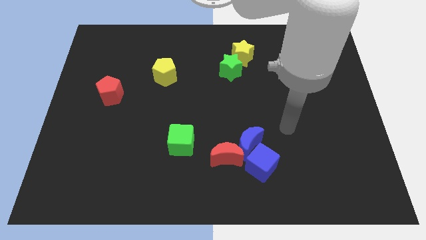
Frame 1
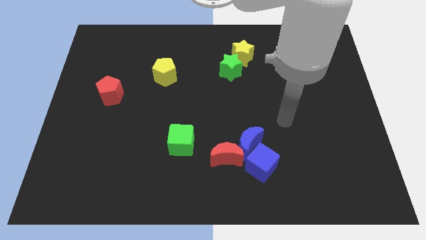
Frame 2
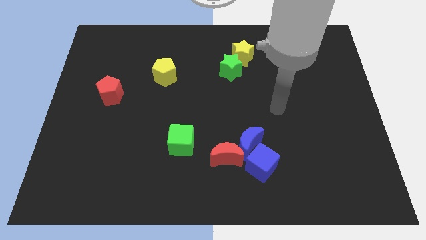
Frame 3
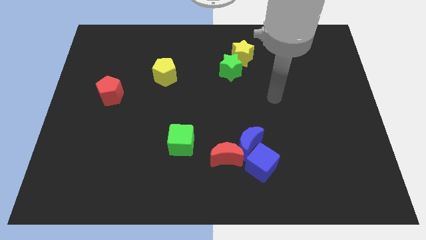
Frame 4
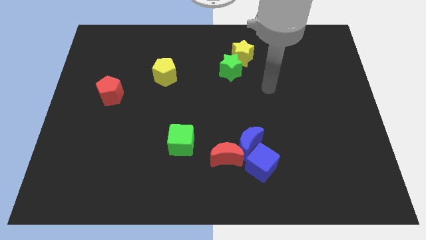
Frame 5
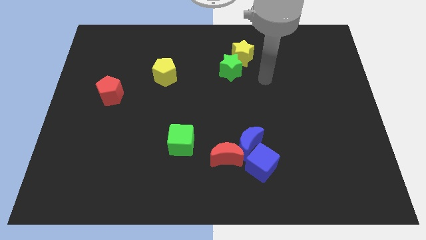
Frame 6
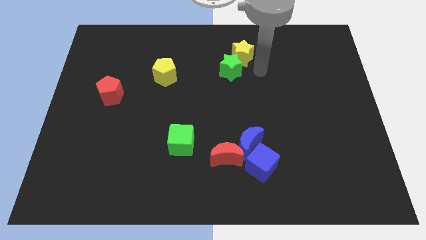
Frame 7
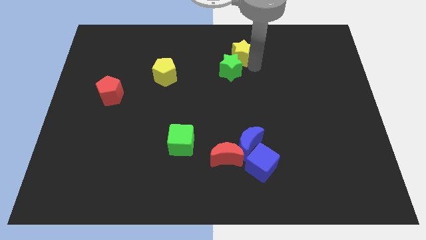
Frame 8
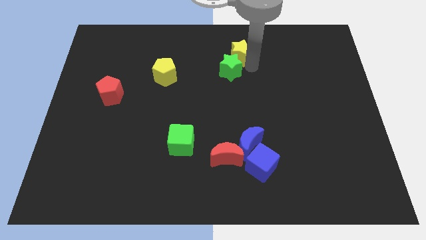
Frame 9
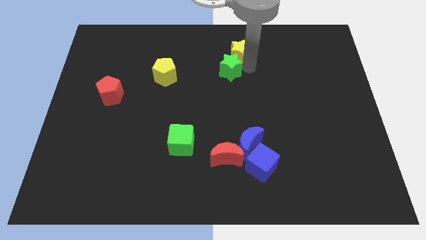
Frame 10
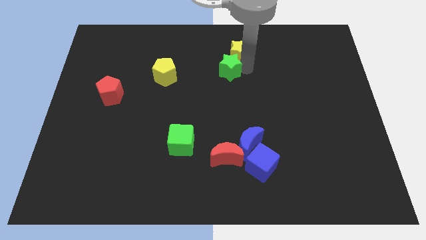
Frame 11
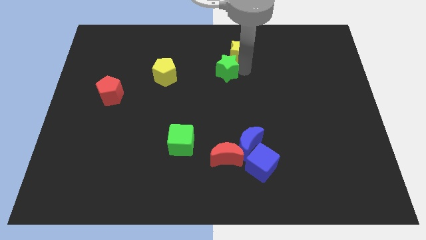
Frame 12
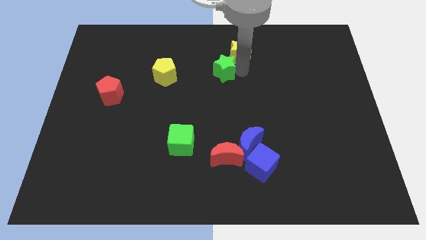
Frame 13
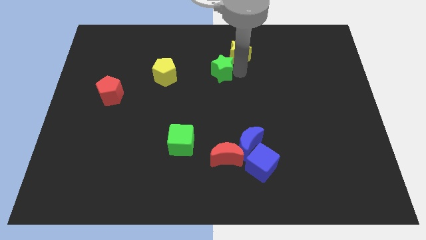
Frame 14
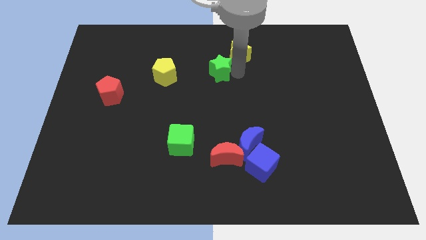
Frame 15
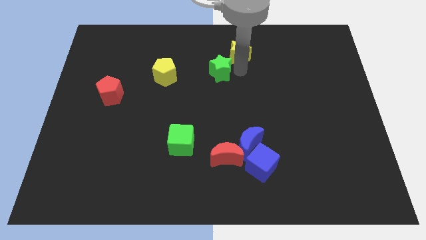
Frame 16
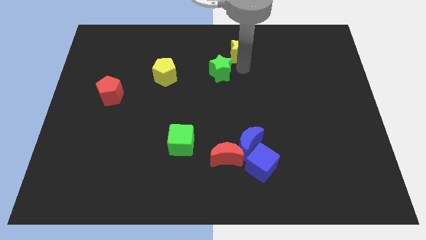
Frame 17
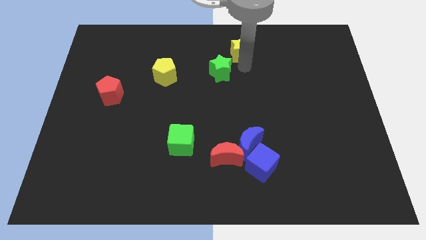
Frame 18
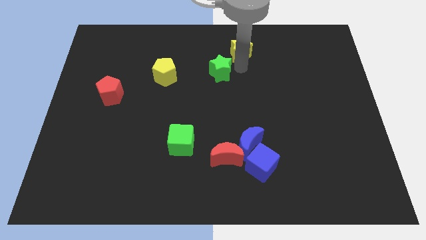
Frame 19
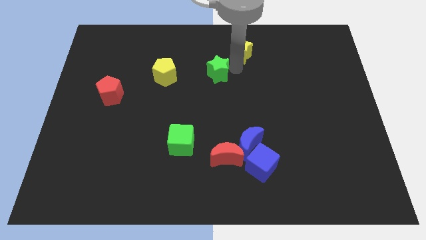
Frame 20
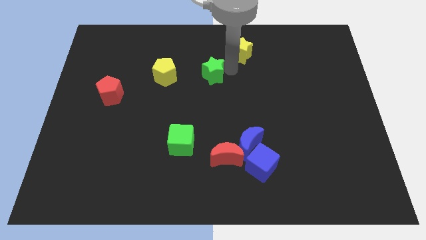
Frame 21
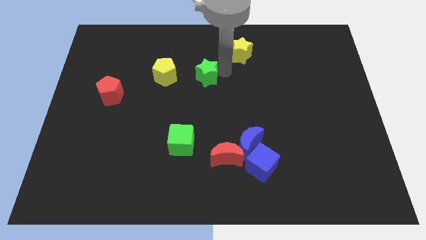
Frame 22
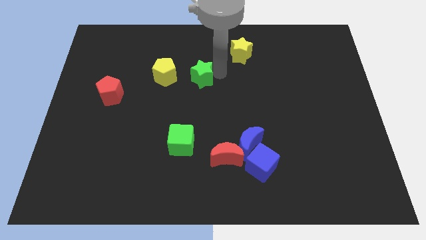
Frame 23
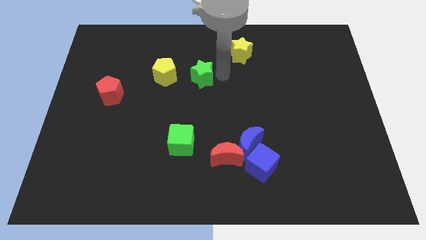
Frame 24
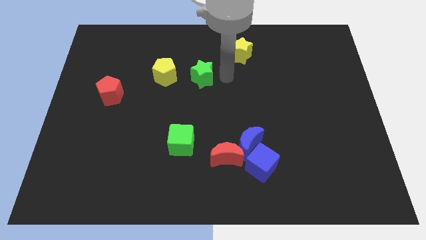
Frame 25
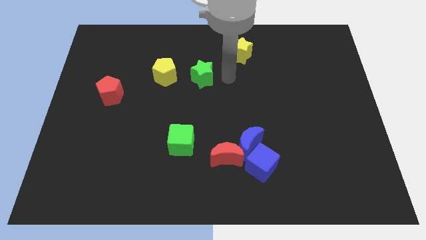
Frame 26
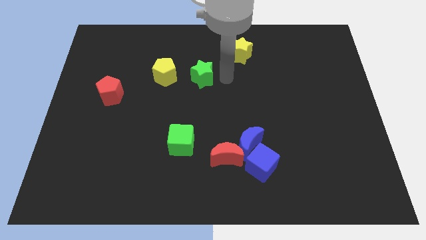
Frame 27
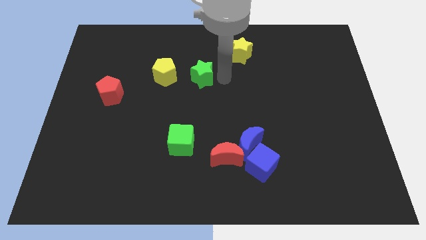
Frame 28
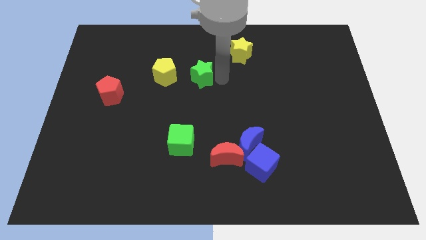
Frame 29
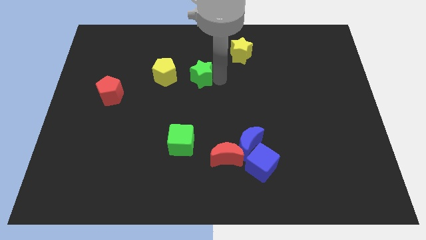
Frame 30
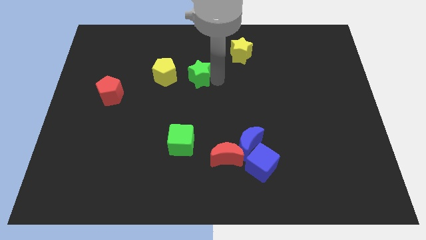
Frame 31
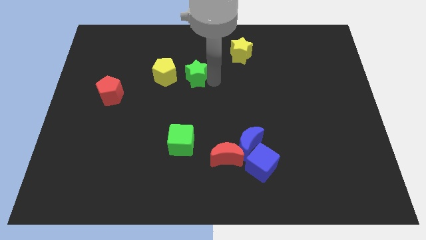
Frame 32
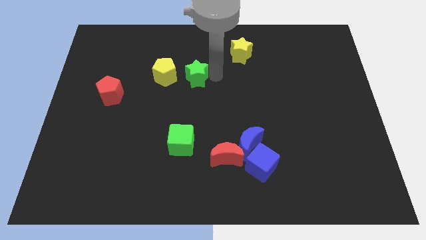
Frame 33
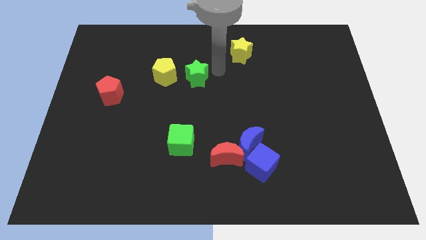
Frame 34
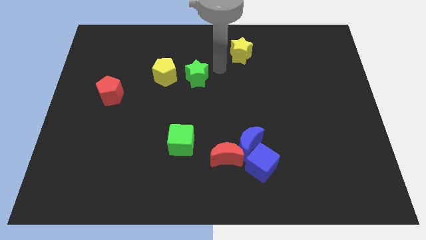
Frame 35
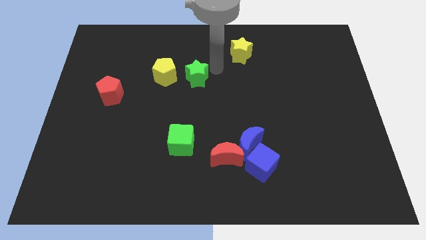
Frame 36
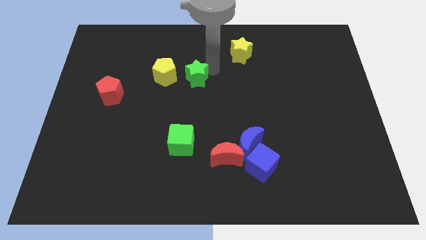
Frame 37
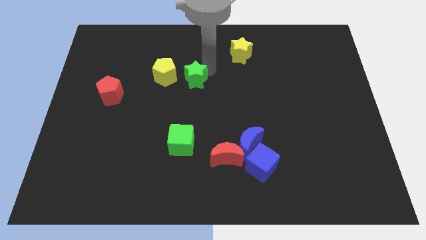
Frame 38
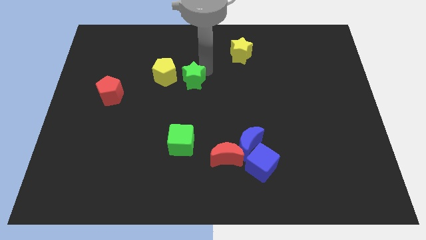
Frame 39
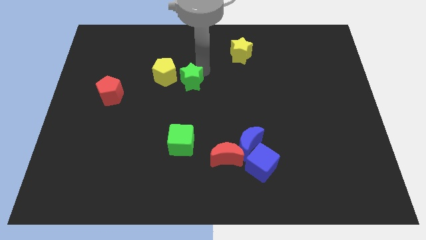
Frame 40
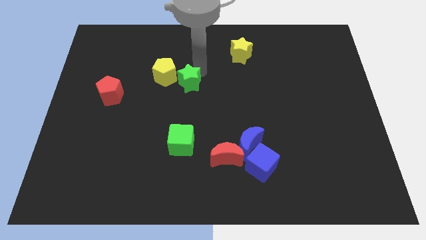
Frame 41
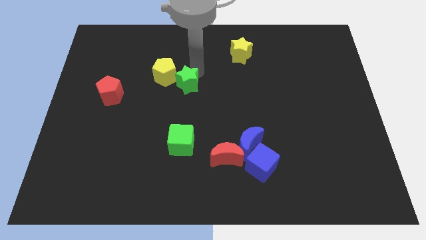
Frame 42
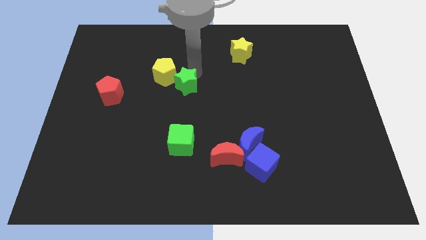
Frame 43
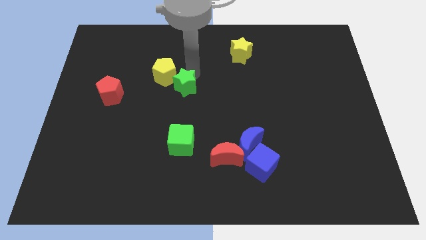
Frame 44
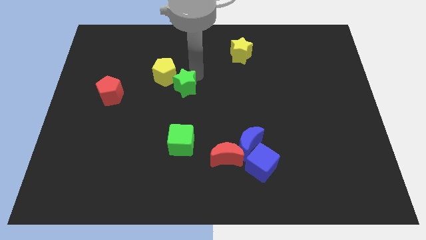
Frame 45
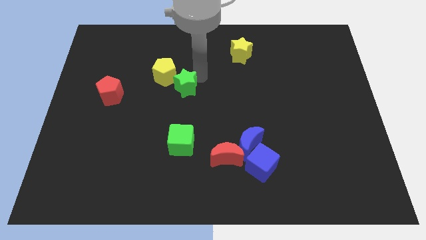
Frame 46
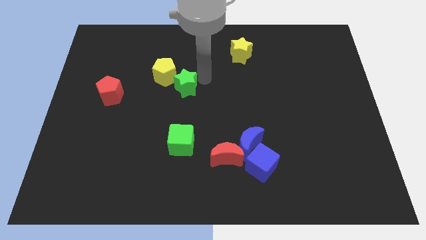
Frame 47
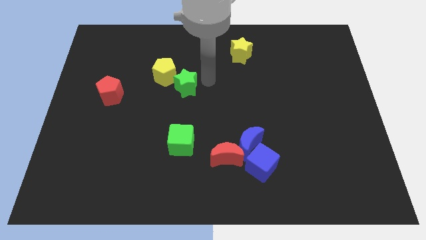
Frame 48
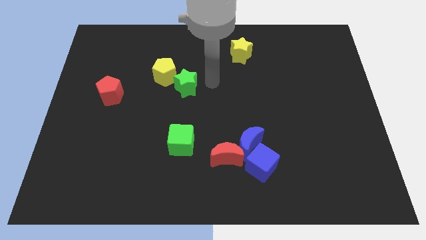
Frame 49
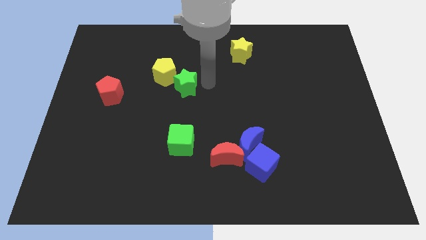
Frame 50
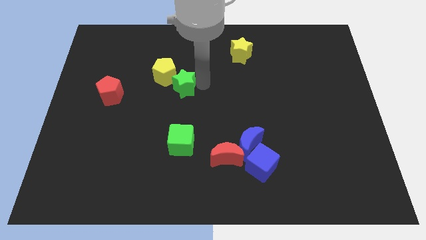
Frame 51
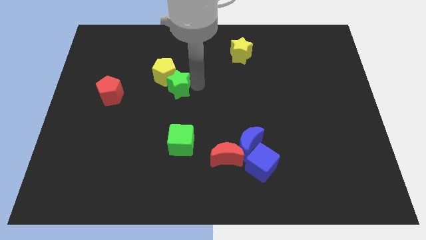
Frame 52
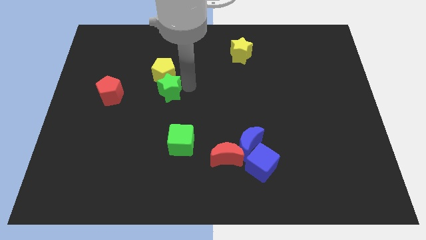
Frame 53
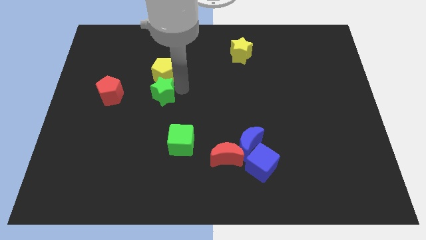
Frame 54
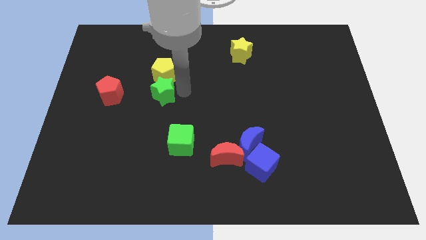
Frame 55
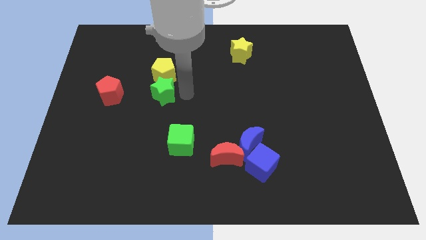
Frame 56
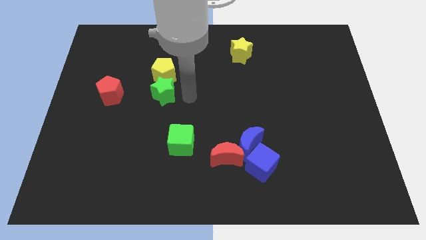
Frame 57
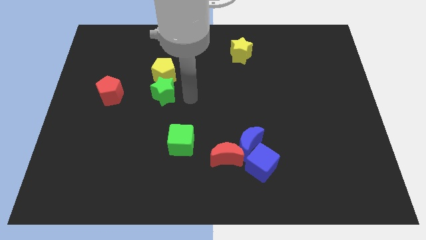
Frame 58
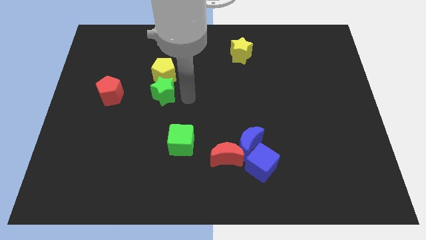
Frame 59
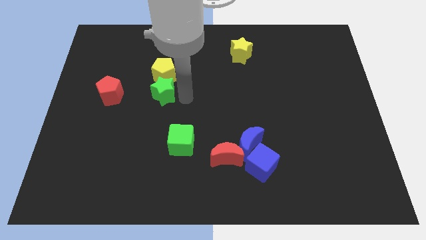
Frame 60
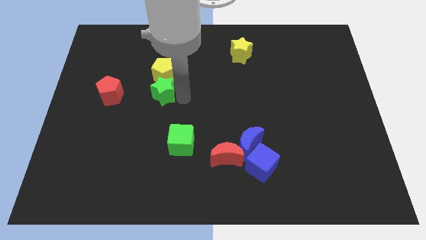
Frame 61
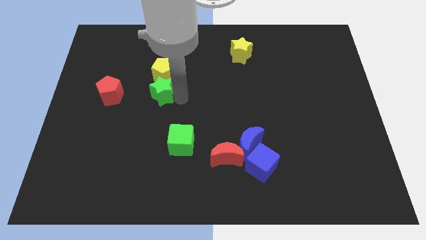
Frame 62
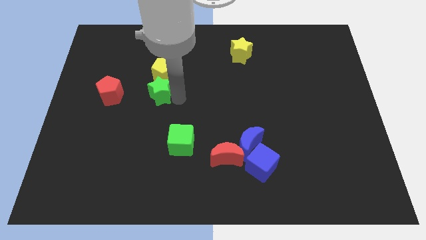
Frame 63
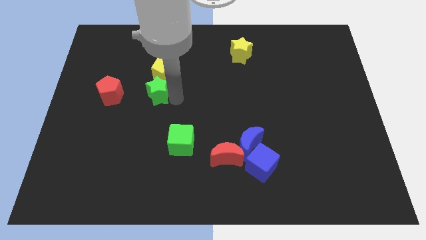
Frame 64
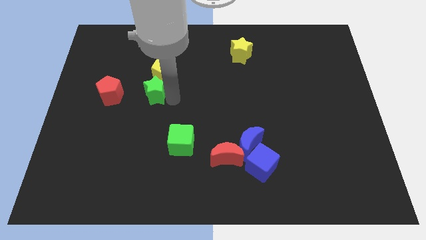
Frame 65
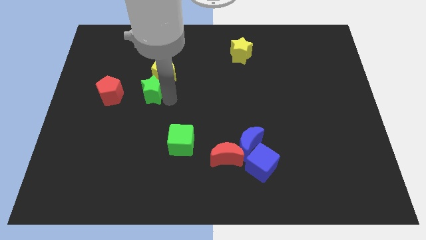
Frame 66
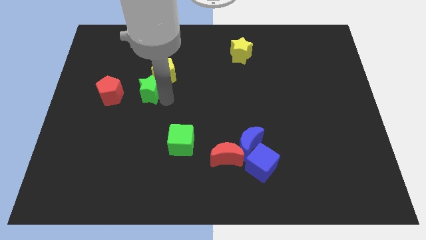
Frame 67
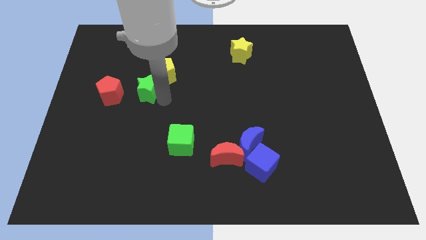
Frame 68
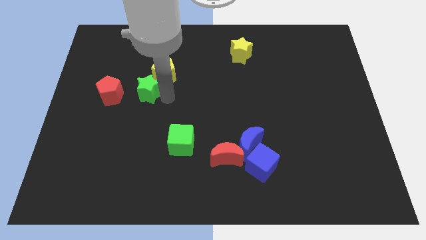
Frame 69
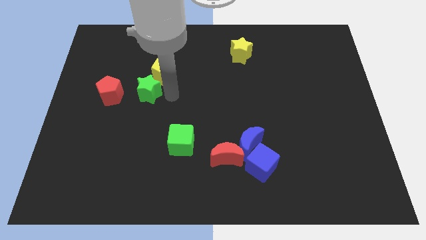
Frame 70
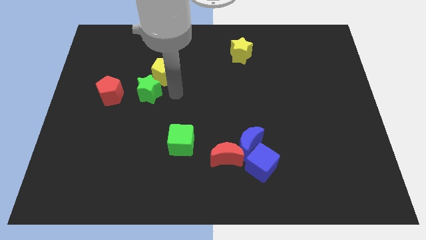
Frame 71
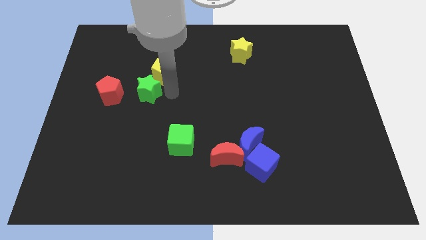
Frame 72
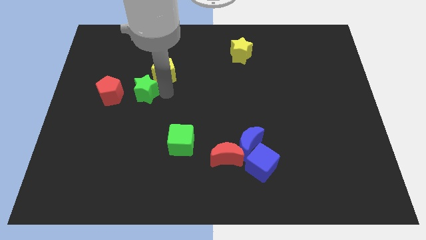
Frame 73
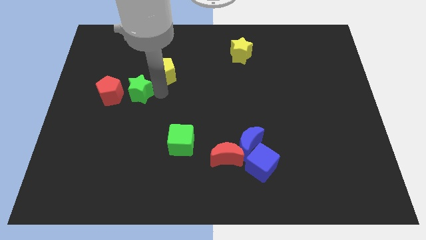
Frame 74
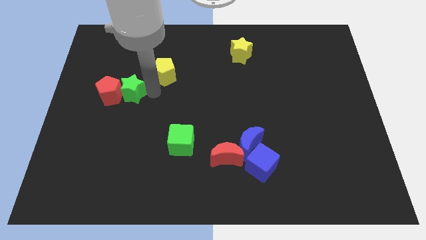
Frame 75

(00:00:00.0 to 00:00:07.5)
move the green star to the red pentagon
